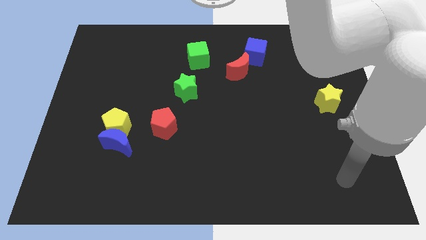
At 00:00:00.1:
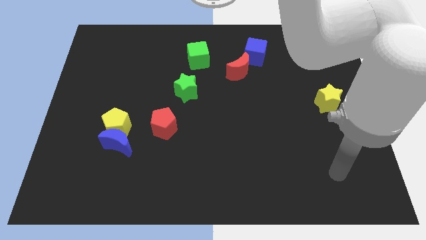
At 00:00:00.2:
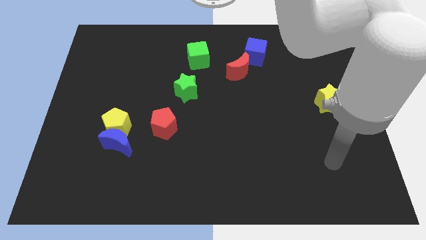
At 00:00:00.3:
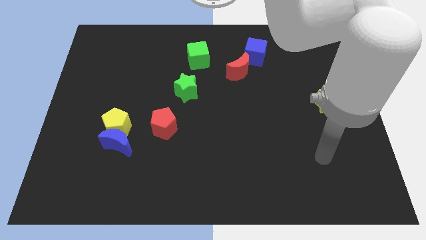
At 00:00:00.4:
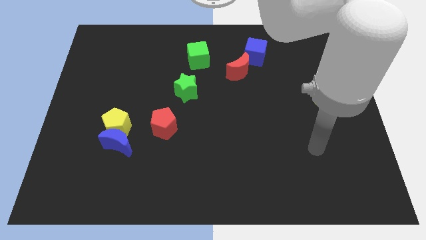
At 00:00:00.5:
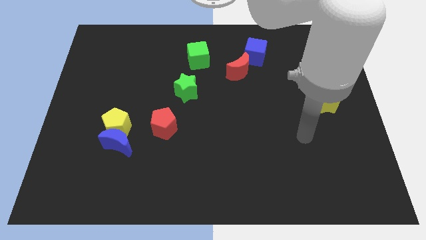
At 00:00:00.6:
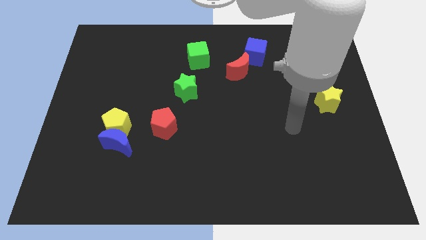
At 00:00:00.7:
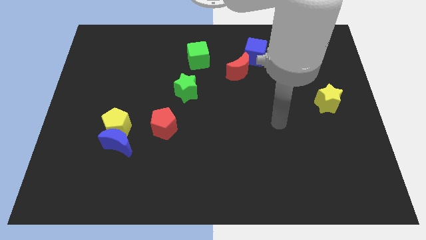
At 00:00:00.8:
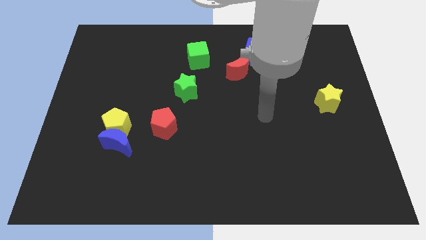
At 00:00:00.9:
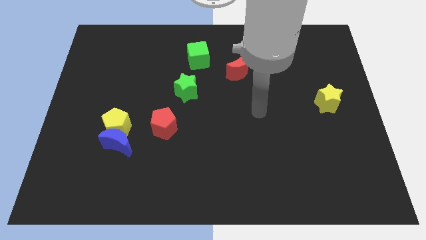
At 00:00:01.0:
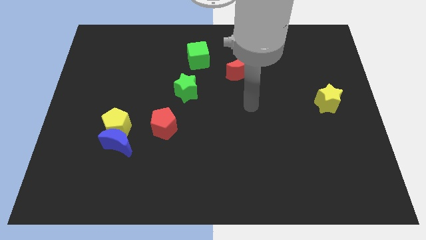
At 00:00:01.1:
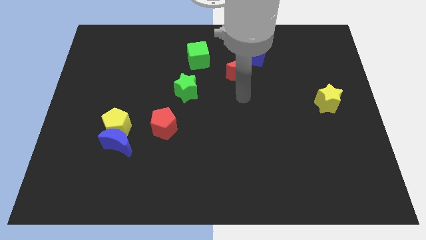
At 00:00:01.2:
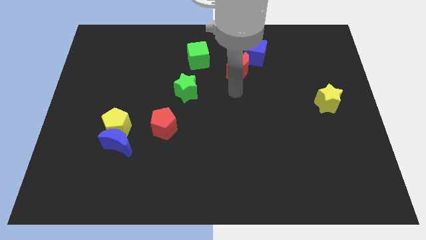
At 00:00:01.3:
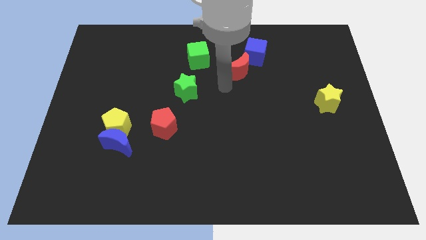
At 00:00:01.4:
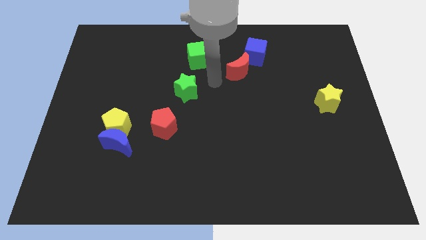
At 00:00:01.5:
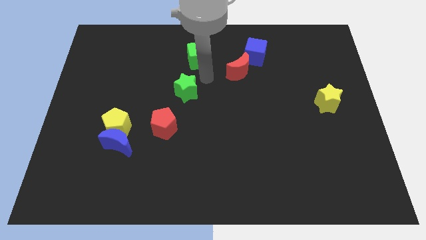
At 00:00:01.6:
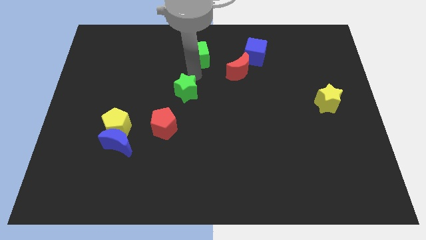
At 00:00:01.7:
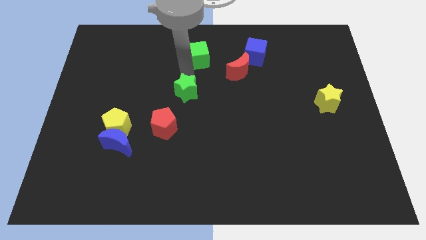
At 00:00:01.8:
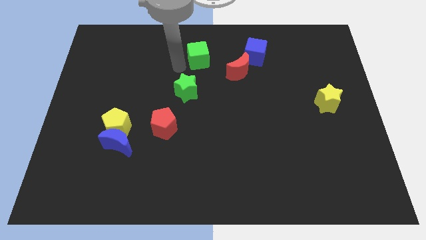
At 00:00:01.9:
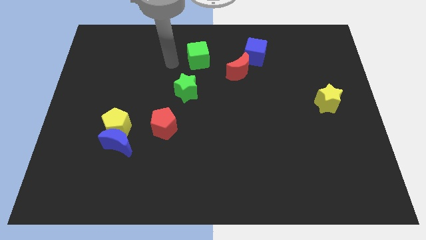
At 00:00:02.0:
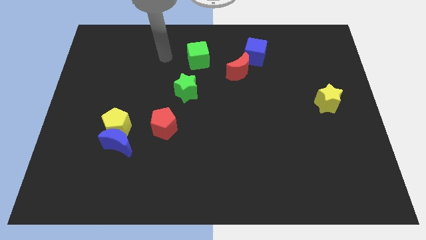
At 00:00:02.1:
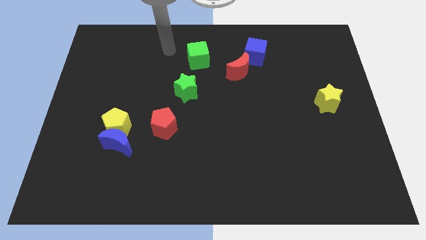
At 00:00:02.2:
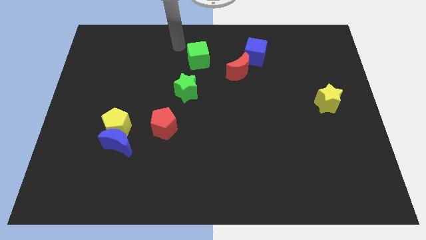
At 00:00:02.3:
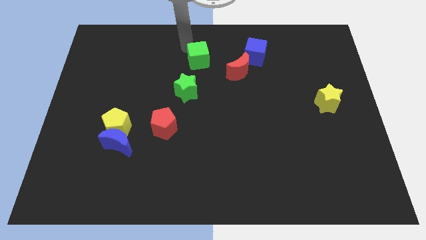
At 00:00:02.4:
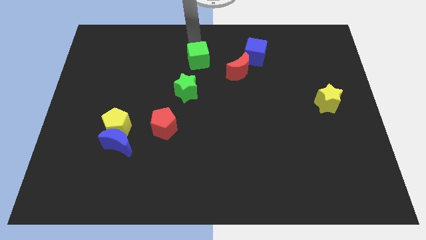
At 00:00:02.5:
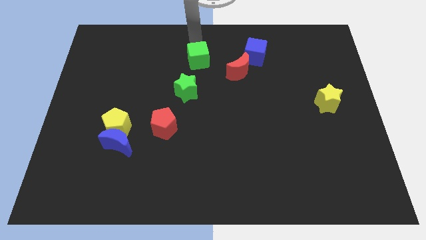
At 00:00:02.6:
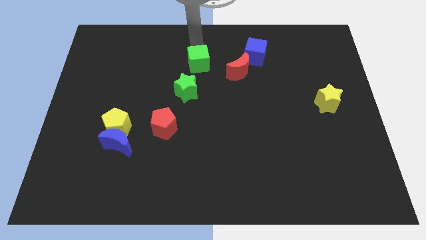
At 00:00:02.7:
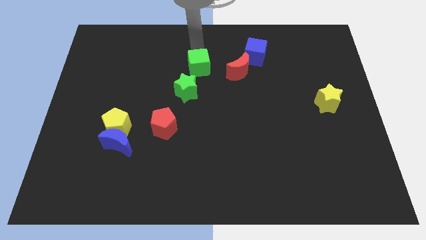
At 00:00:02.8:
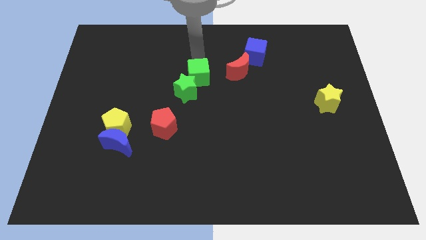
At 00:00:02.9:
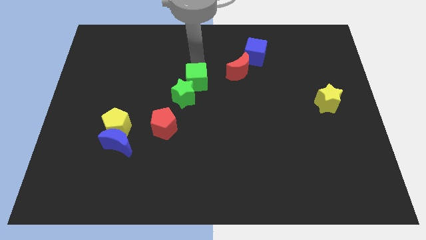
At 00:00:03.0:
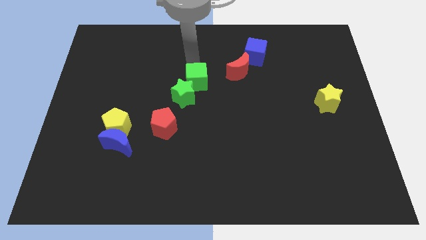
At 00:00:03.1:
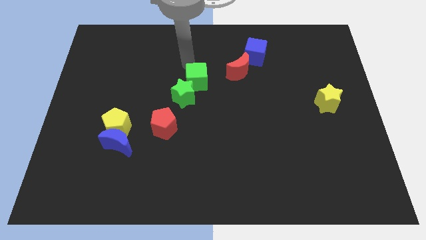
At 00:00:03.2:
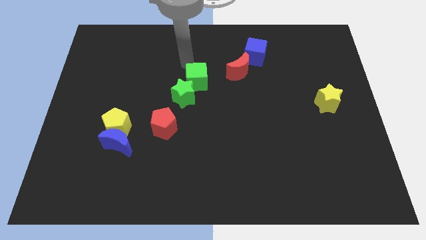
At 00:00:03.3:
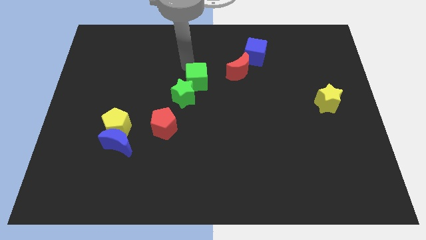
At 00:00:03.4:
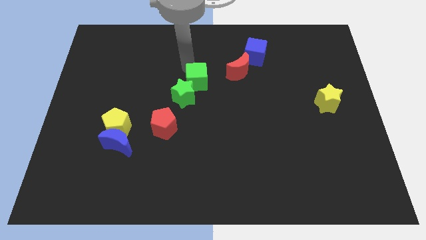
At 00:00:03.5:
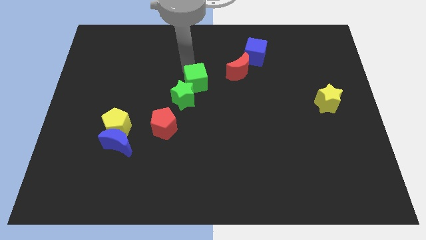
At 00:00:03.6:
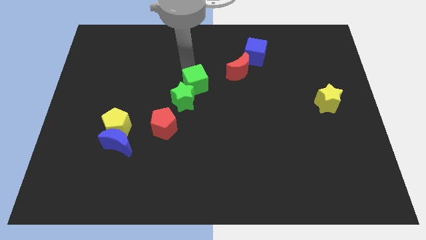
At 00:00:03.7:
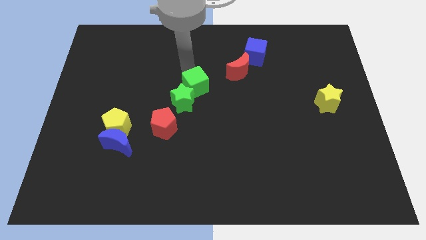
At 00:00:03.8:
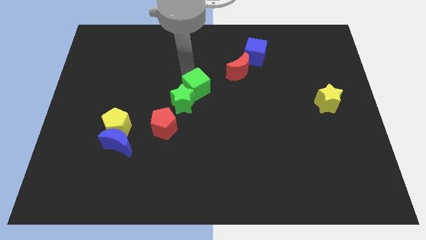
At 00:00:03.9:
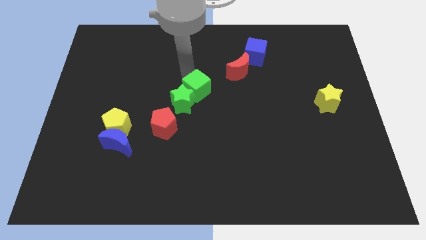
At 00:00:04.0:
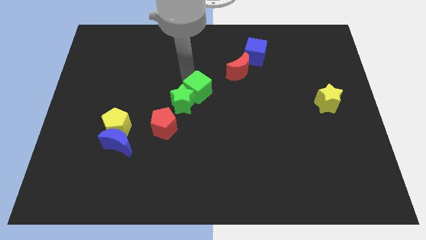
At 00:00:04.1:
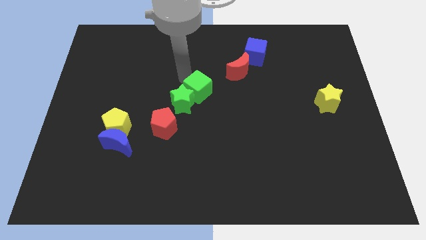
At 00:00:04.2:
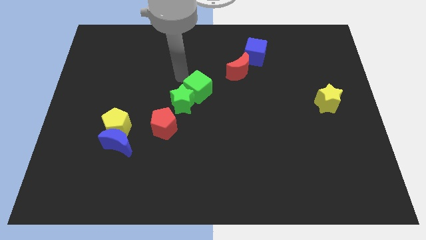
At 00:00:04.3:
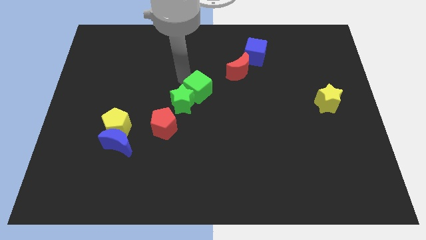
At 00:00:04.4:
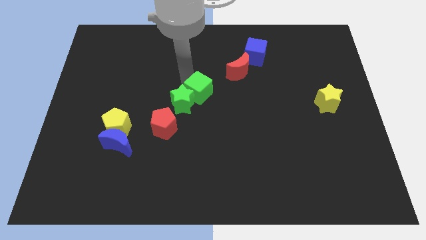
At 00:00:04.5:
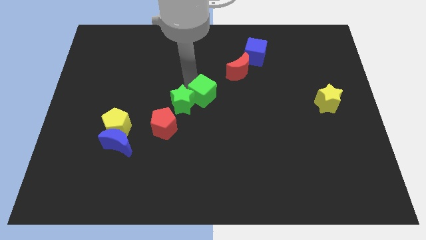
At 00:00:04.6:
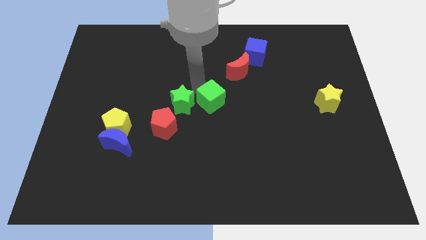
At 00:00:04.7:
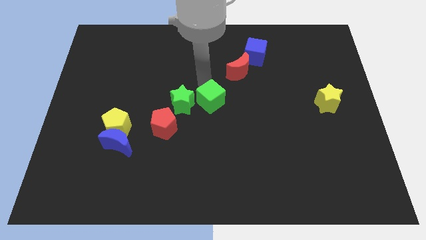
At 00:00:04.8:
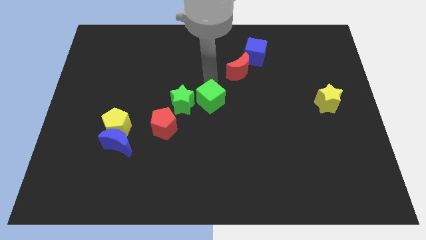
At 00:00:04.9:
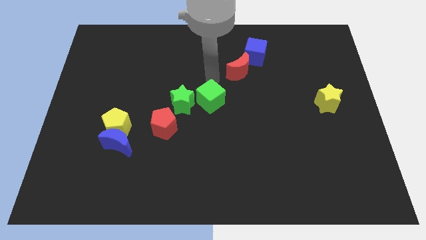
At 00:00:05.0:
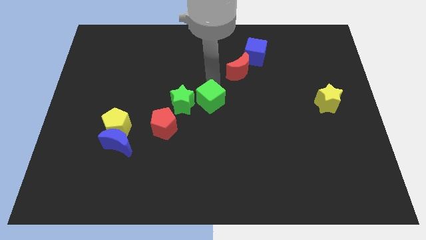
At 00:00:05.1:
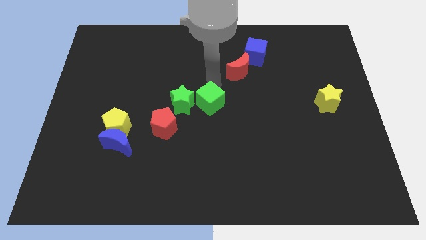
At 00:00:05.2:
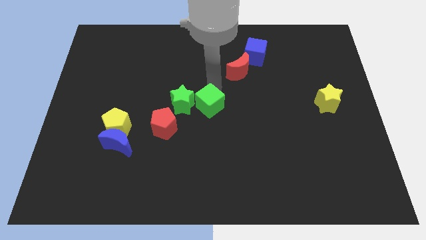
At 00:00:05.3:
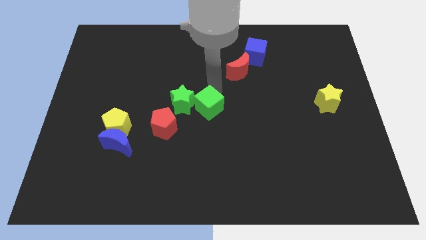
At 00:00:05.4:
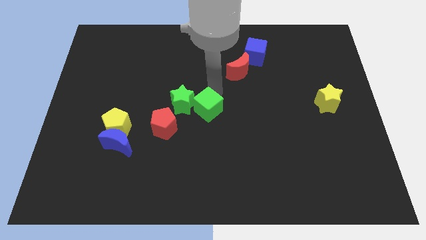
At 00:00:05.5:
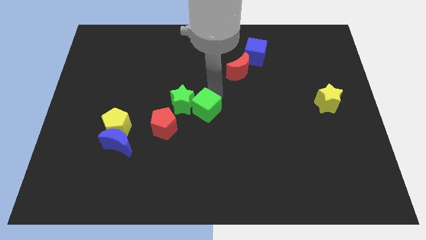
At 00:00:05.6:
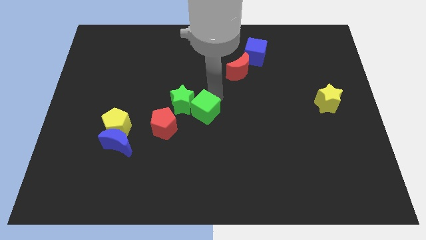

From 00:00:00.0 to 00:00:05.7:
slide the green cube just right of the red pentagon

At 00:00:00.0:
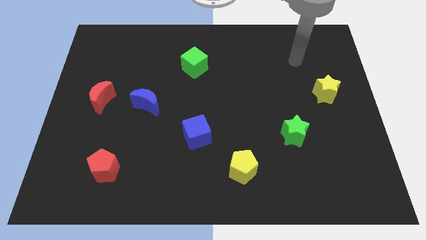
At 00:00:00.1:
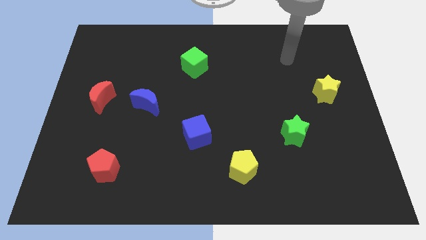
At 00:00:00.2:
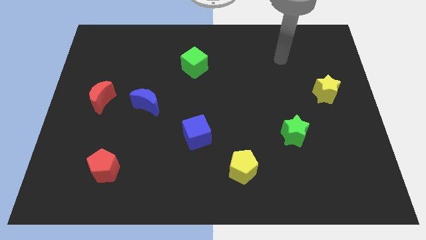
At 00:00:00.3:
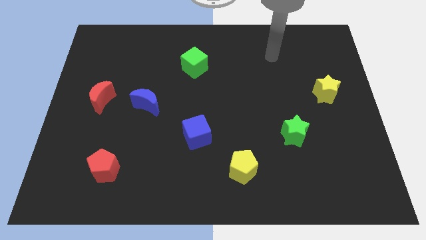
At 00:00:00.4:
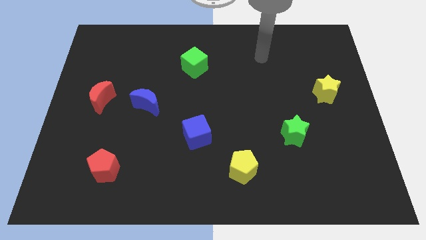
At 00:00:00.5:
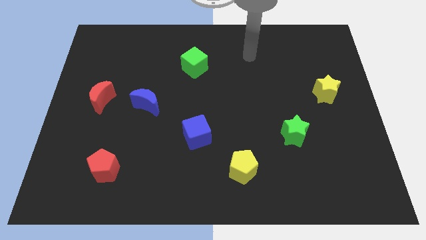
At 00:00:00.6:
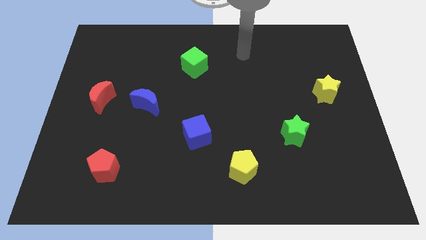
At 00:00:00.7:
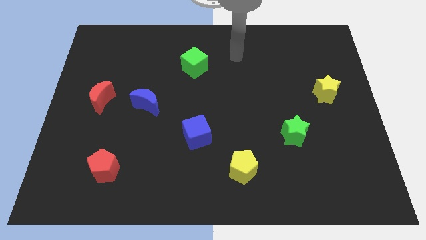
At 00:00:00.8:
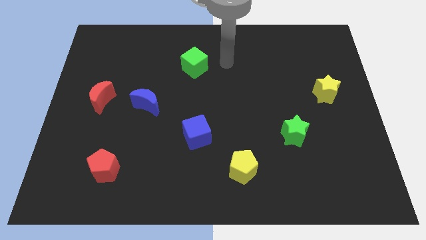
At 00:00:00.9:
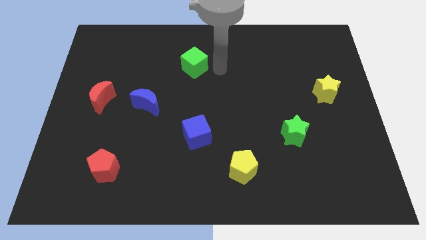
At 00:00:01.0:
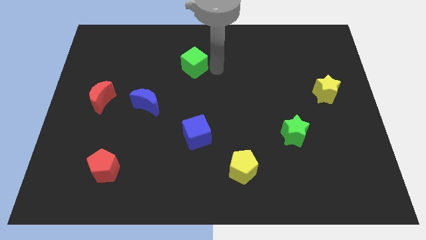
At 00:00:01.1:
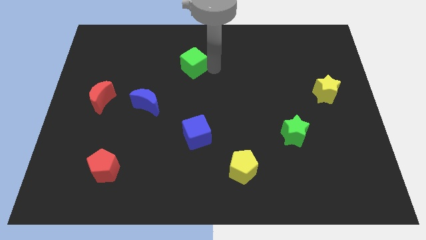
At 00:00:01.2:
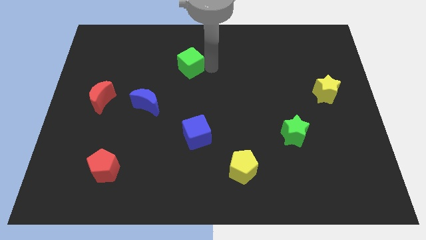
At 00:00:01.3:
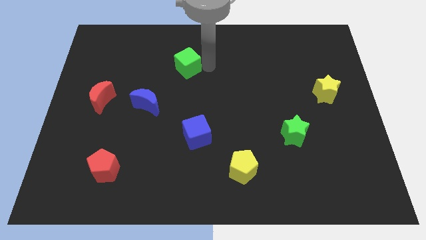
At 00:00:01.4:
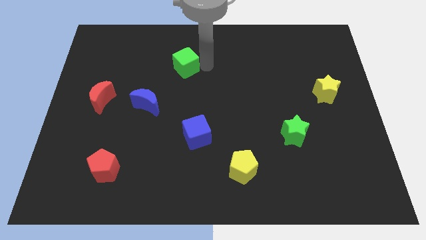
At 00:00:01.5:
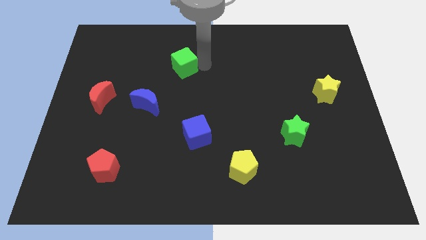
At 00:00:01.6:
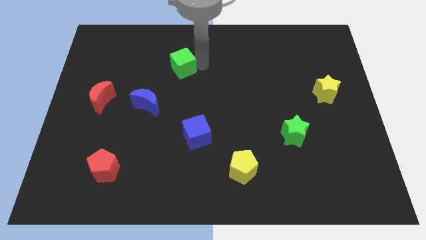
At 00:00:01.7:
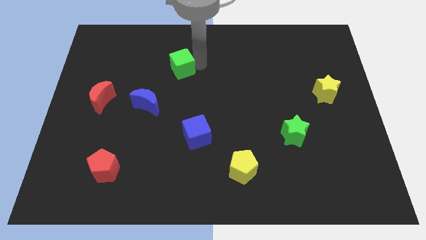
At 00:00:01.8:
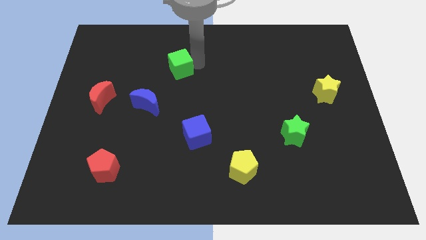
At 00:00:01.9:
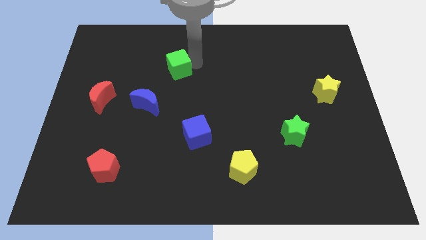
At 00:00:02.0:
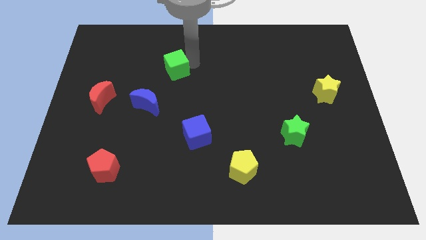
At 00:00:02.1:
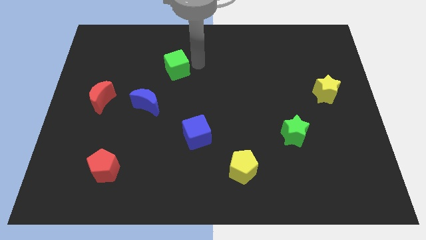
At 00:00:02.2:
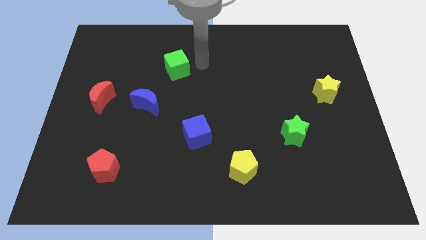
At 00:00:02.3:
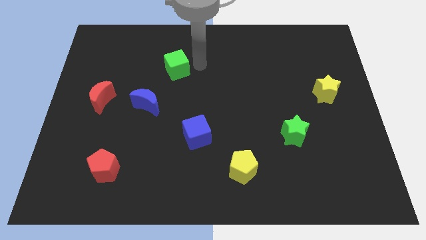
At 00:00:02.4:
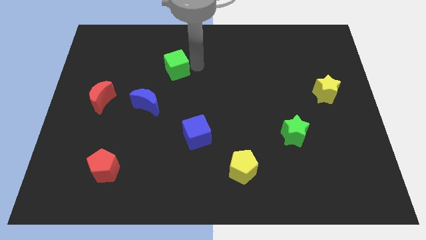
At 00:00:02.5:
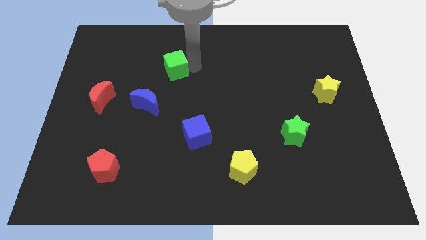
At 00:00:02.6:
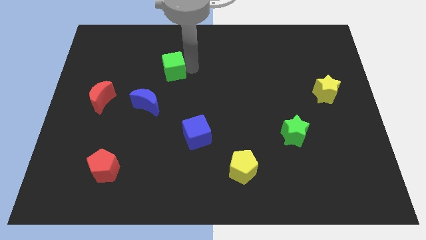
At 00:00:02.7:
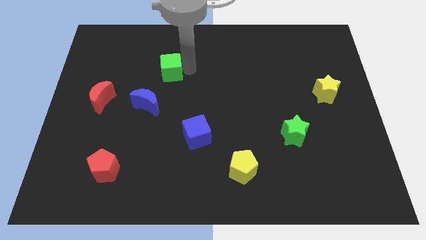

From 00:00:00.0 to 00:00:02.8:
put the green cube above the blue moon
